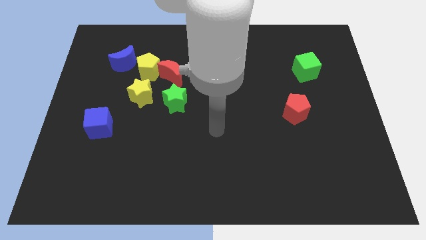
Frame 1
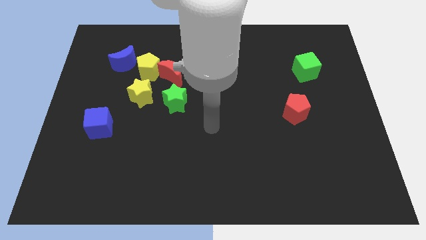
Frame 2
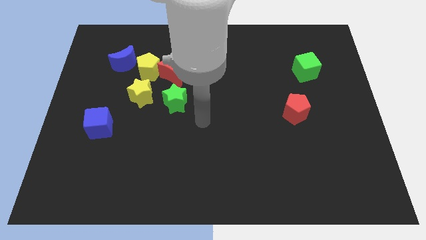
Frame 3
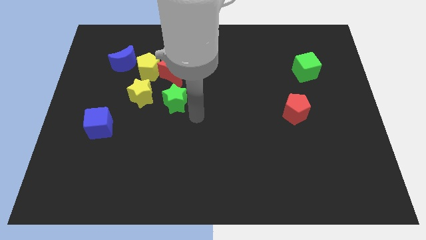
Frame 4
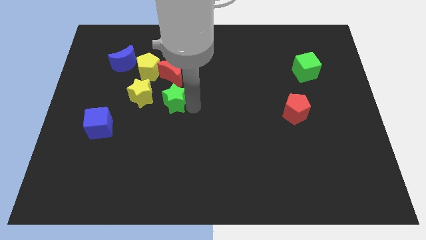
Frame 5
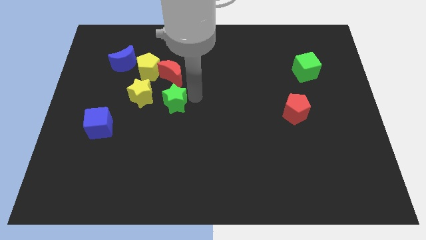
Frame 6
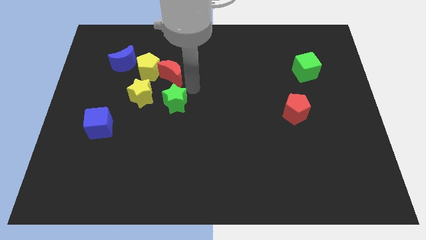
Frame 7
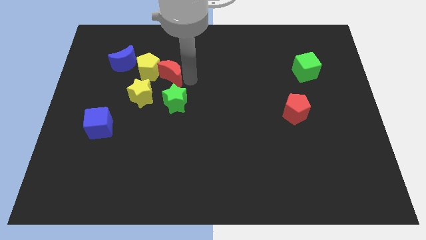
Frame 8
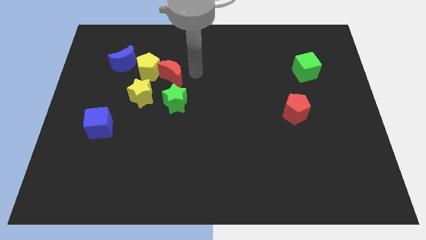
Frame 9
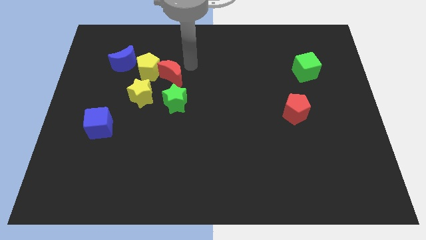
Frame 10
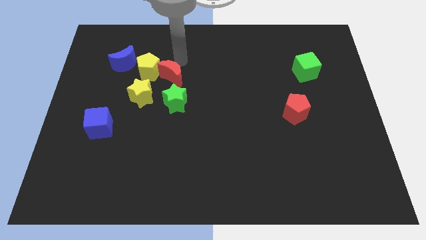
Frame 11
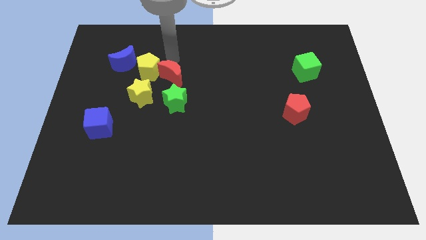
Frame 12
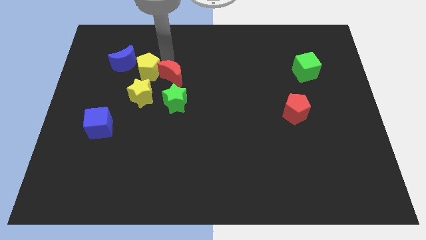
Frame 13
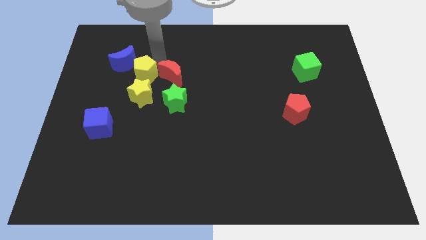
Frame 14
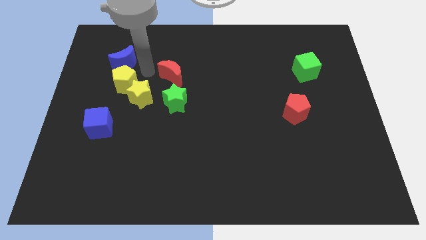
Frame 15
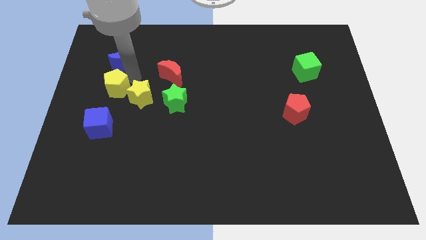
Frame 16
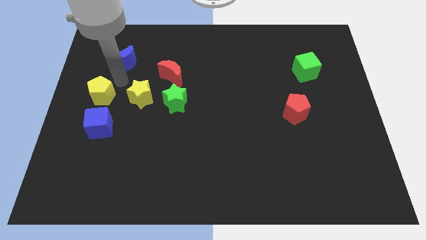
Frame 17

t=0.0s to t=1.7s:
separate the blue moon from the yellow pentagon

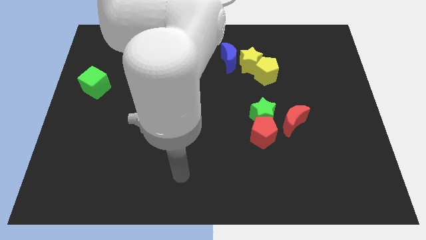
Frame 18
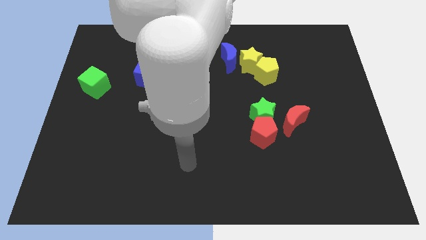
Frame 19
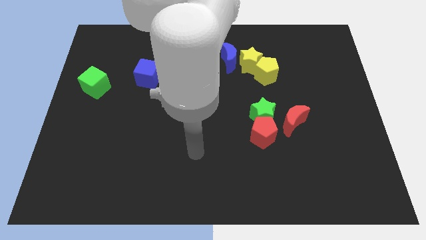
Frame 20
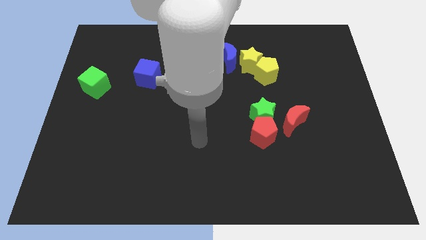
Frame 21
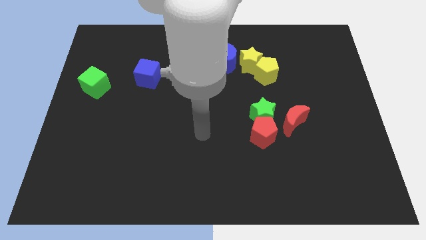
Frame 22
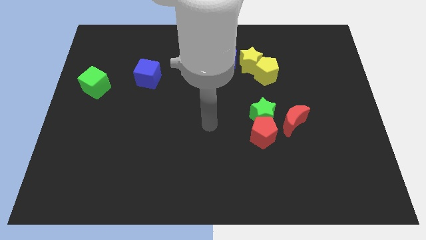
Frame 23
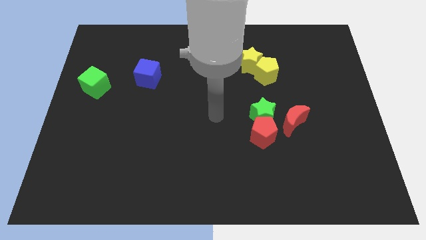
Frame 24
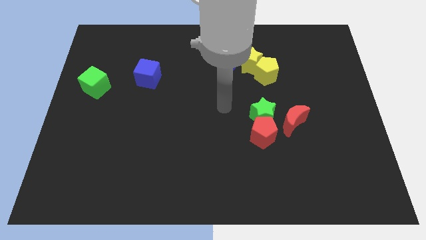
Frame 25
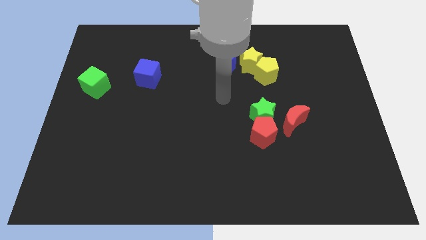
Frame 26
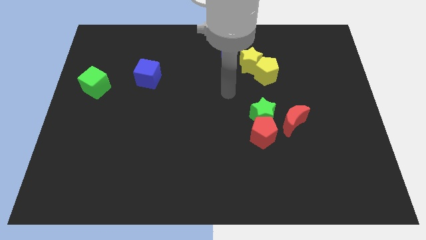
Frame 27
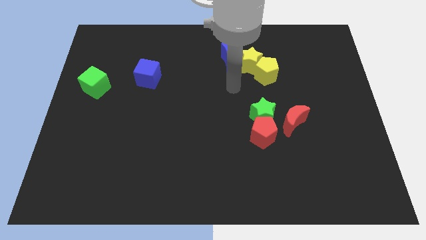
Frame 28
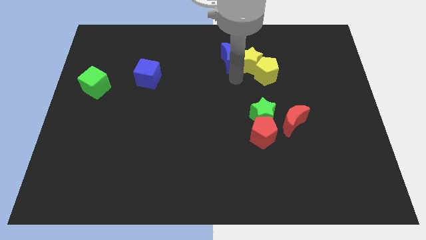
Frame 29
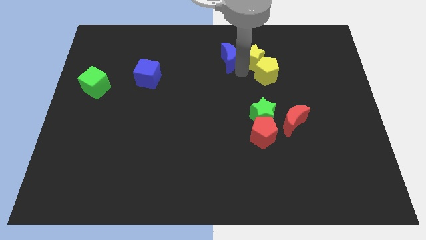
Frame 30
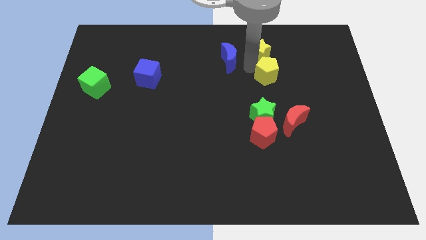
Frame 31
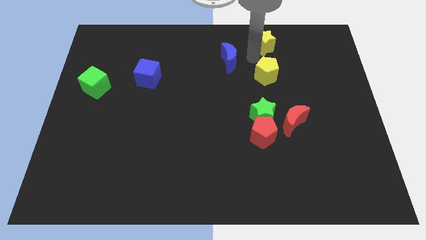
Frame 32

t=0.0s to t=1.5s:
move the blue moon away from the yellow star

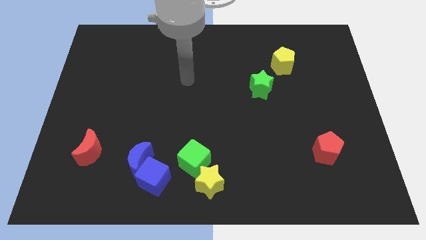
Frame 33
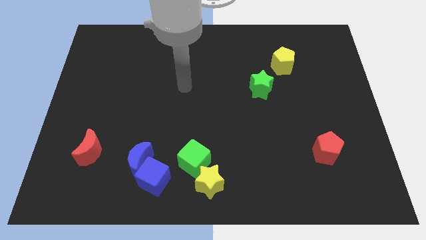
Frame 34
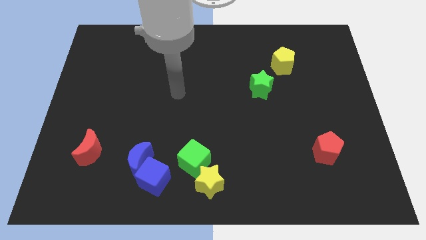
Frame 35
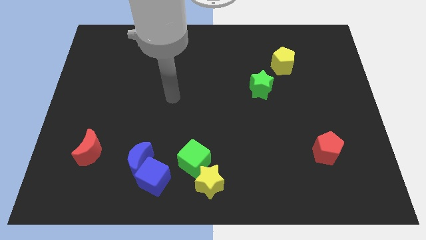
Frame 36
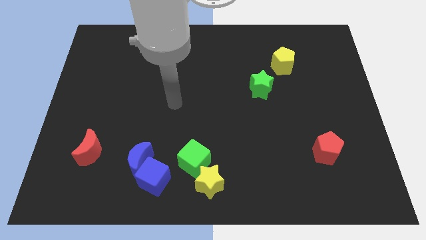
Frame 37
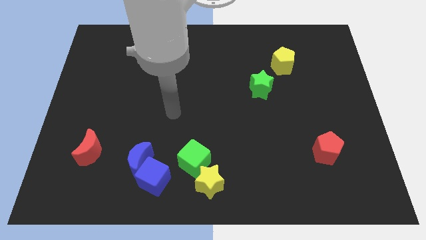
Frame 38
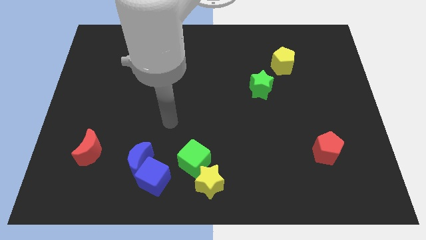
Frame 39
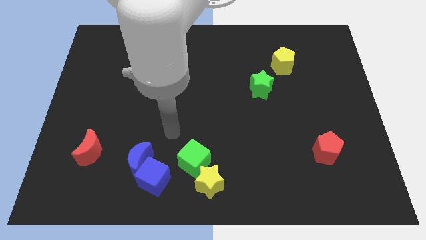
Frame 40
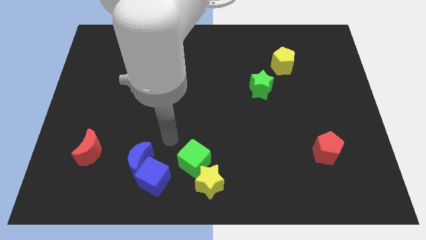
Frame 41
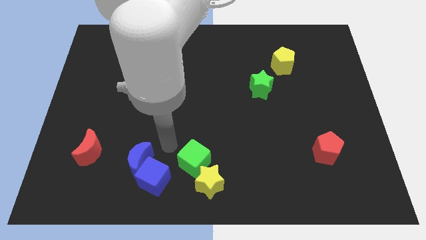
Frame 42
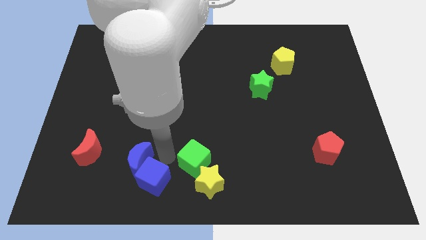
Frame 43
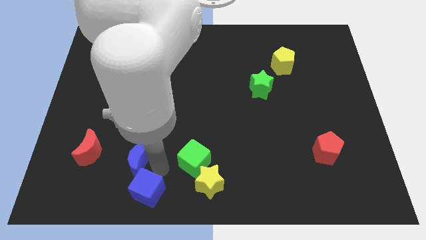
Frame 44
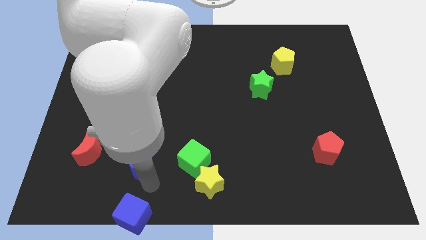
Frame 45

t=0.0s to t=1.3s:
pull the blue moon apart from the blue cube

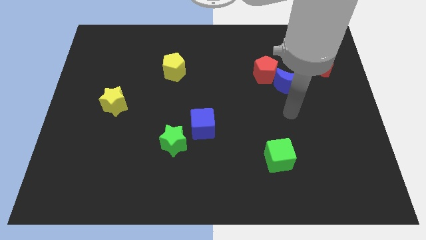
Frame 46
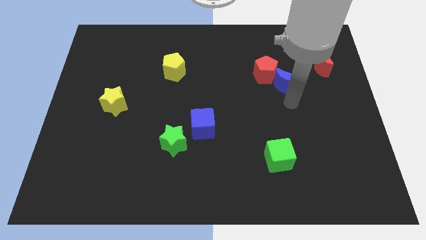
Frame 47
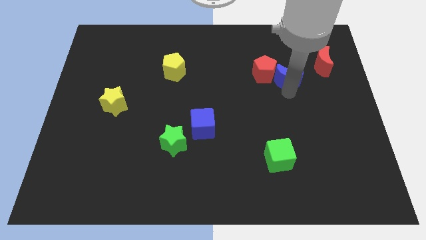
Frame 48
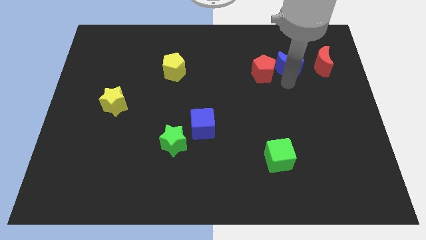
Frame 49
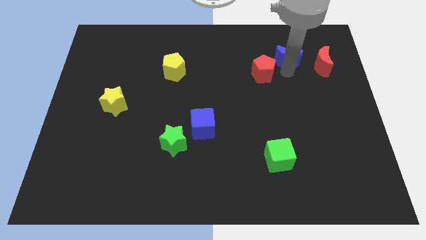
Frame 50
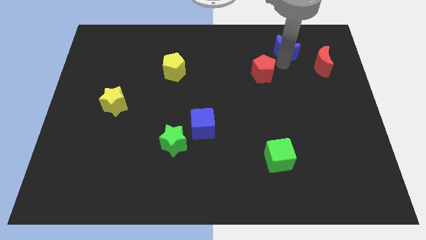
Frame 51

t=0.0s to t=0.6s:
separate the red pentagon from the blue moon

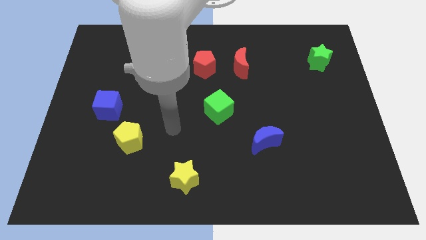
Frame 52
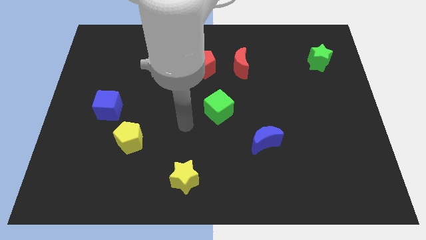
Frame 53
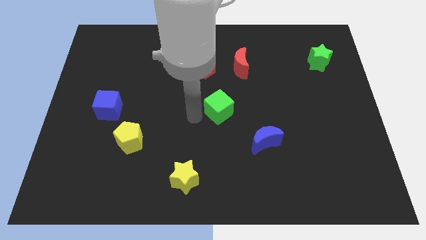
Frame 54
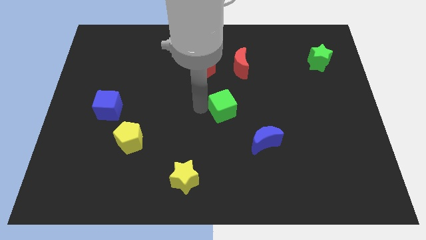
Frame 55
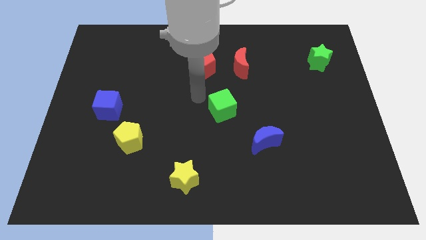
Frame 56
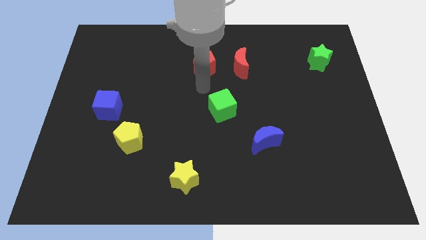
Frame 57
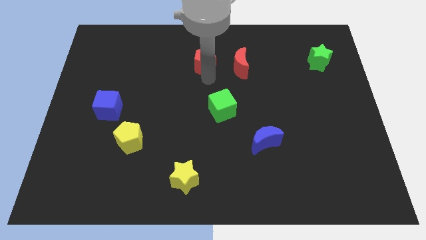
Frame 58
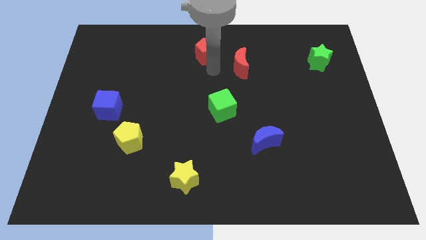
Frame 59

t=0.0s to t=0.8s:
move the red moon away from the red pentagon

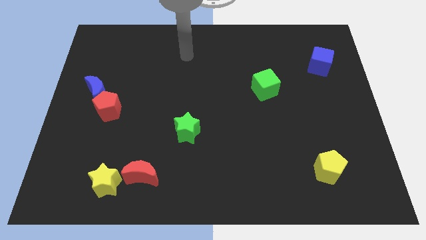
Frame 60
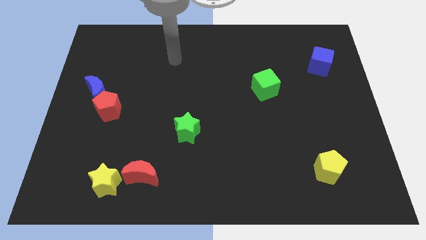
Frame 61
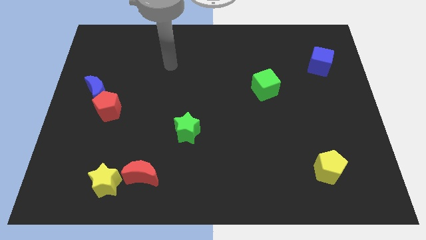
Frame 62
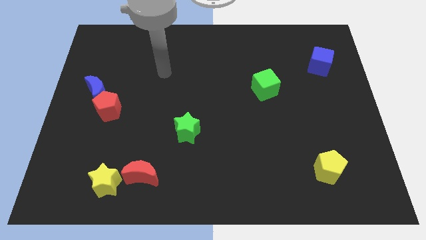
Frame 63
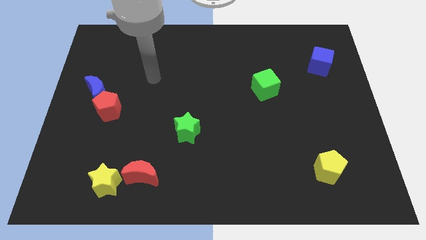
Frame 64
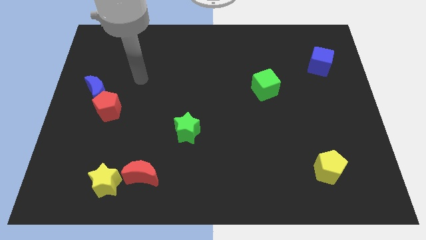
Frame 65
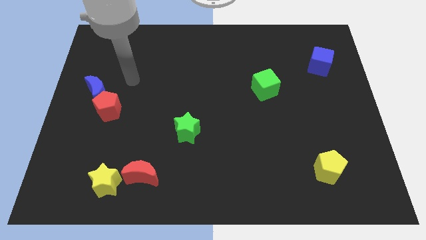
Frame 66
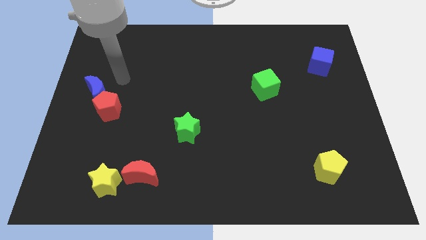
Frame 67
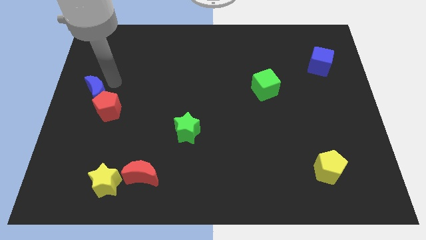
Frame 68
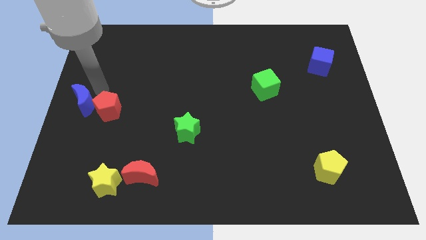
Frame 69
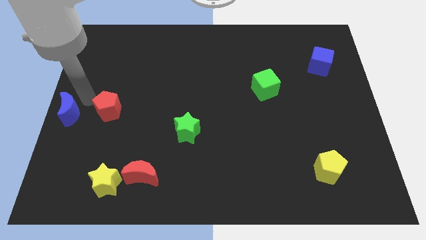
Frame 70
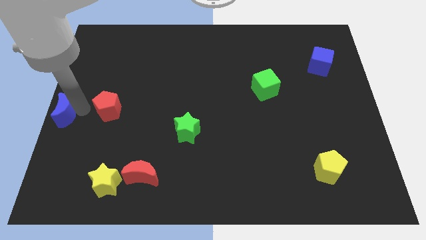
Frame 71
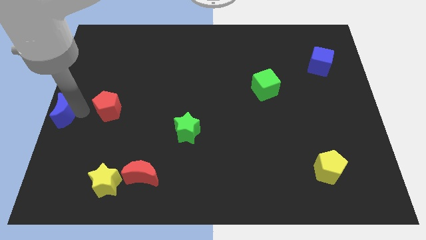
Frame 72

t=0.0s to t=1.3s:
pull the red pentagon apart from the blue moon

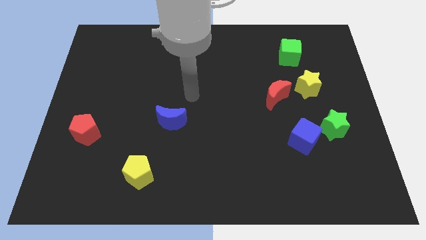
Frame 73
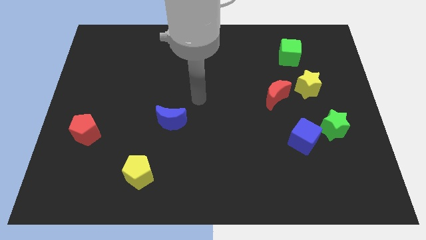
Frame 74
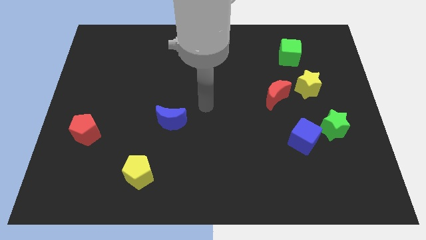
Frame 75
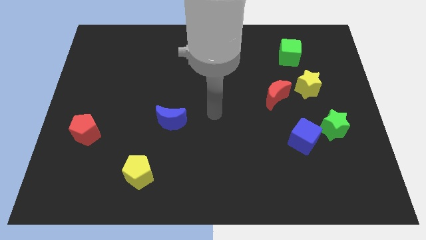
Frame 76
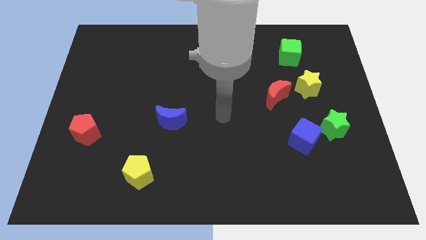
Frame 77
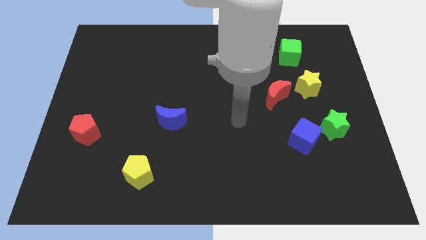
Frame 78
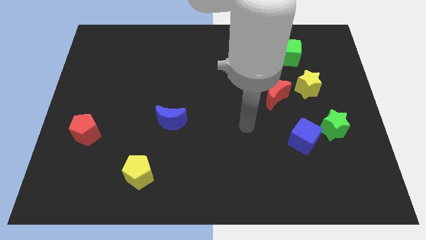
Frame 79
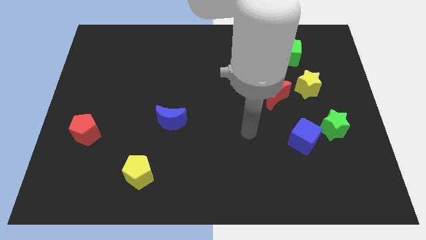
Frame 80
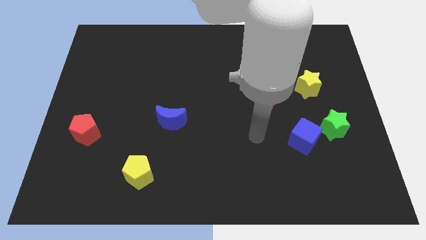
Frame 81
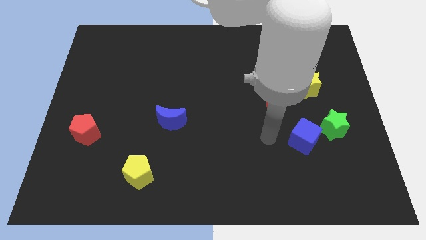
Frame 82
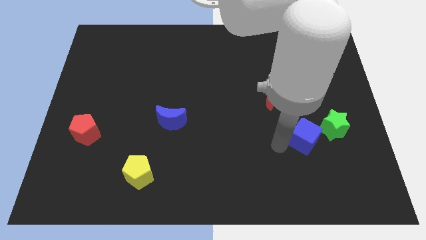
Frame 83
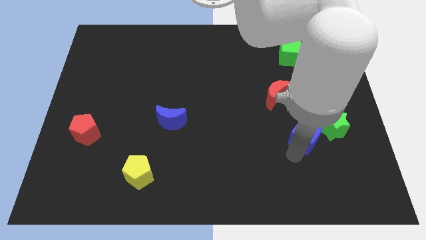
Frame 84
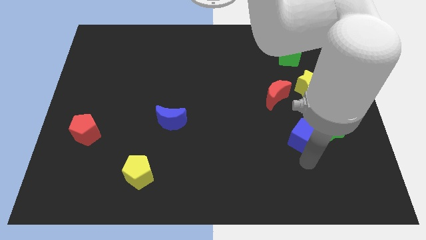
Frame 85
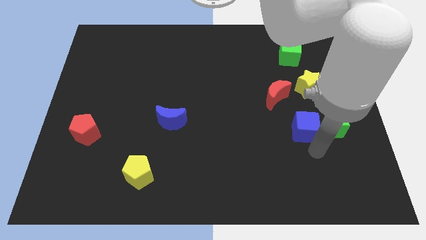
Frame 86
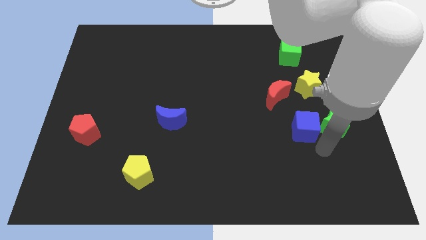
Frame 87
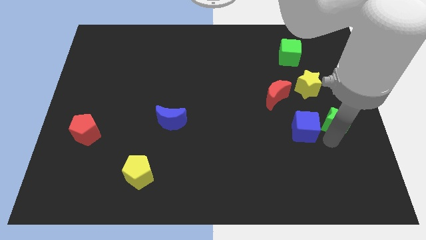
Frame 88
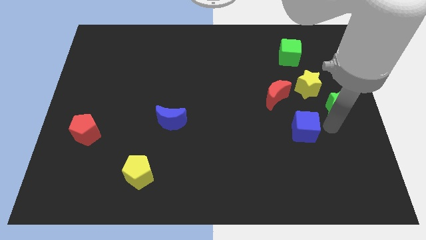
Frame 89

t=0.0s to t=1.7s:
separate the blue cube from the green star

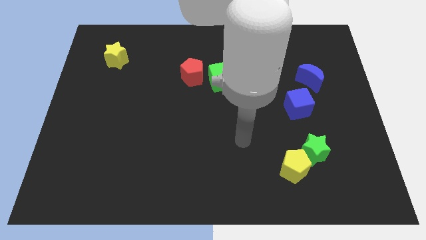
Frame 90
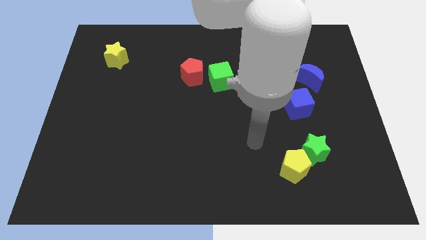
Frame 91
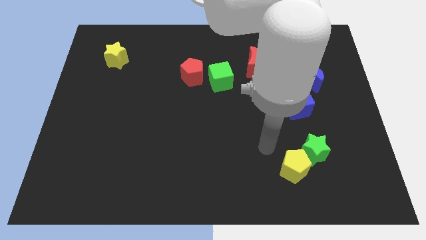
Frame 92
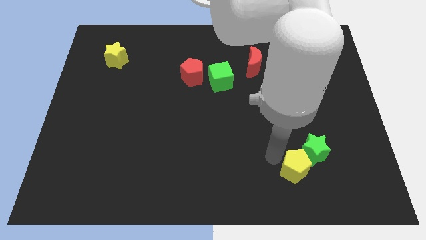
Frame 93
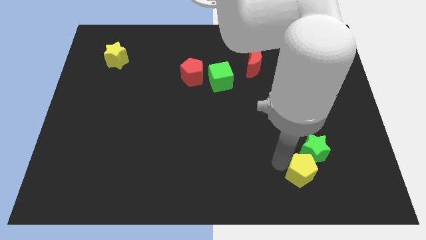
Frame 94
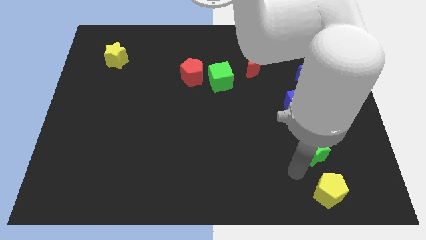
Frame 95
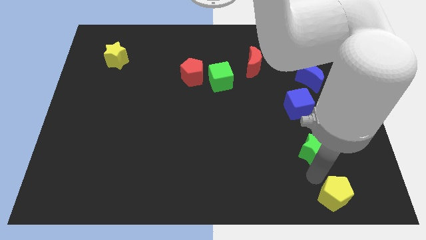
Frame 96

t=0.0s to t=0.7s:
separate the green star from the yellow pentagon
